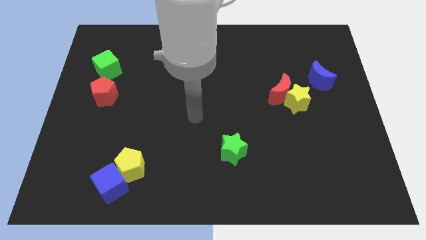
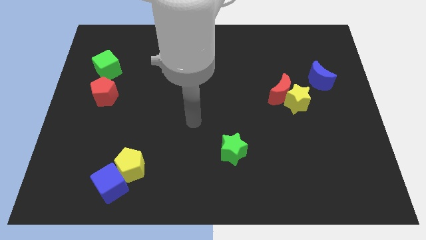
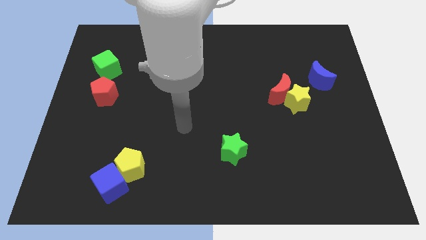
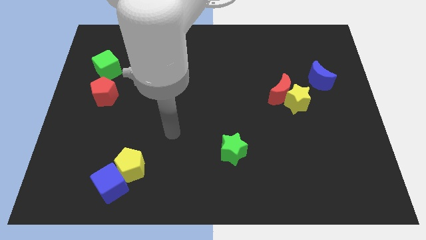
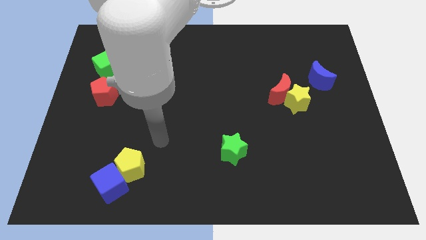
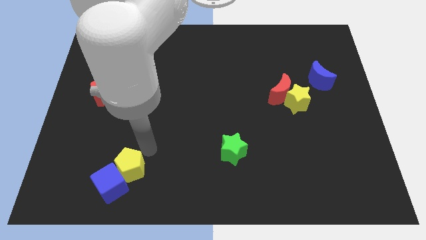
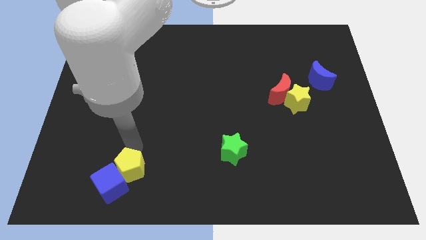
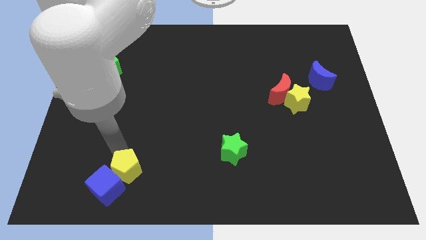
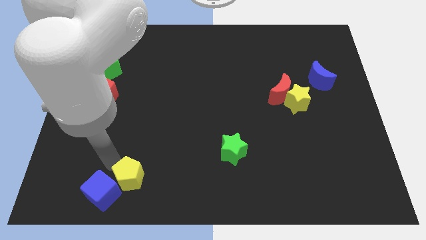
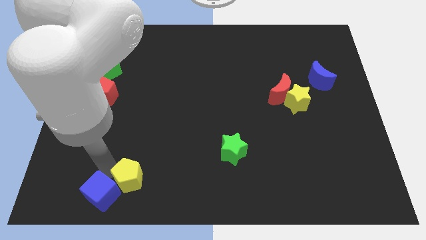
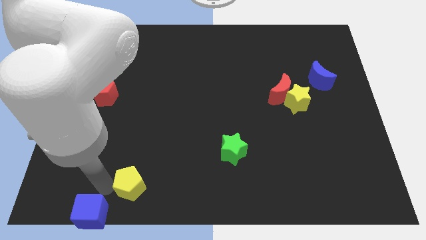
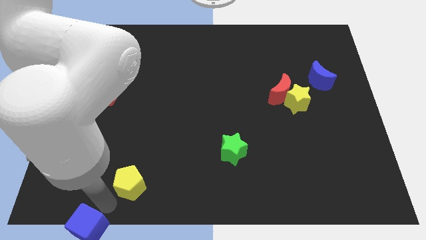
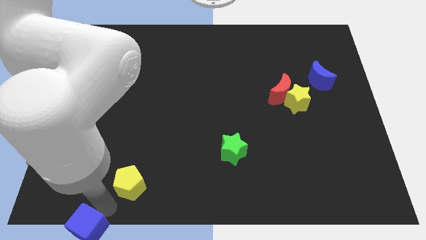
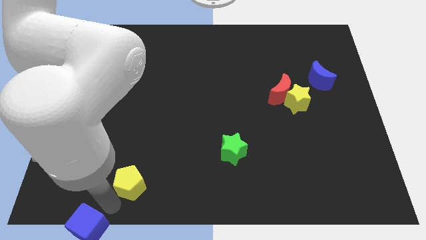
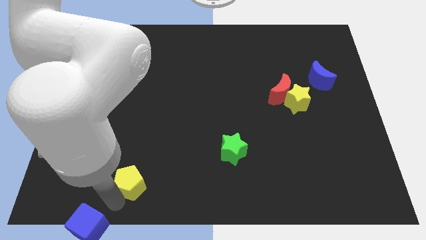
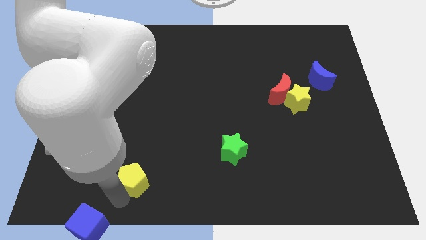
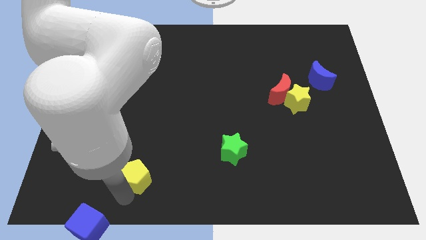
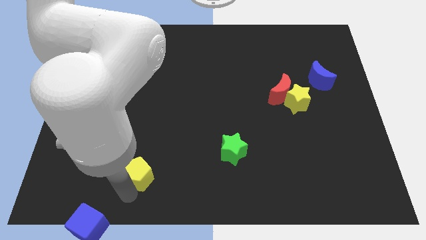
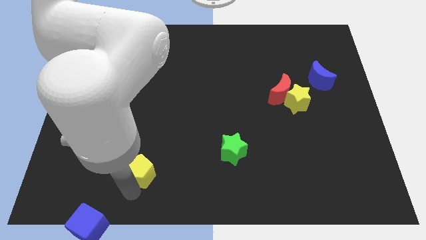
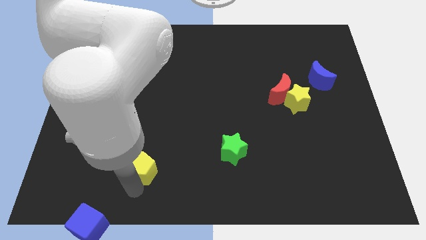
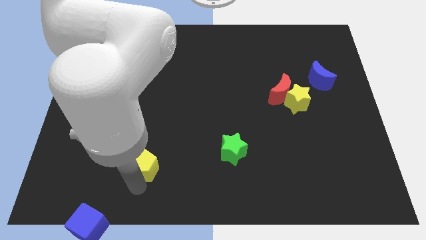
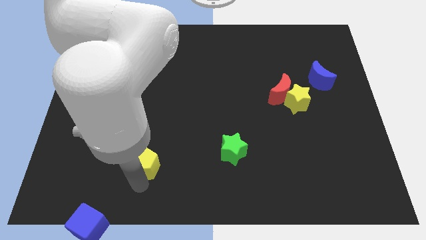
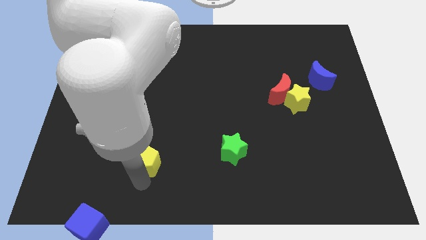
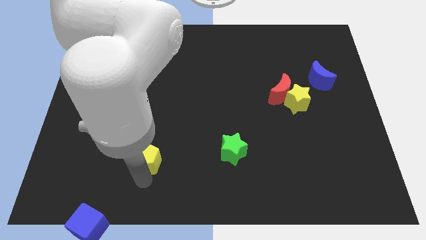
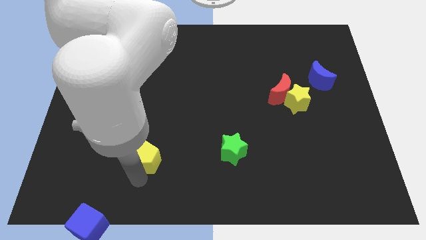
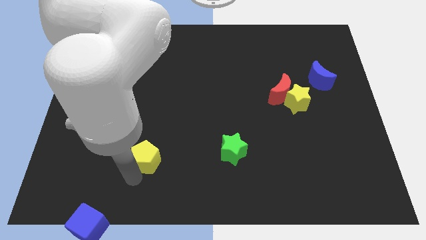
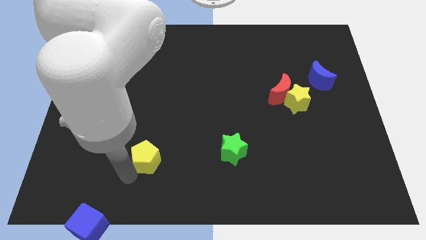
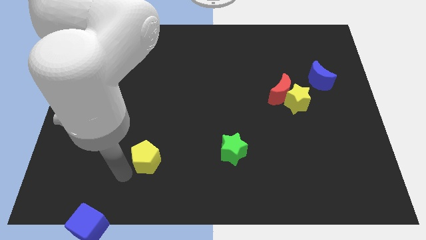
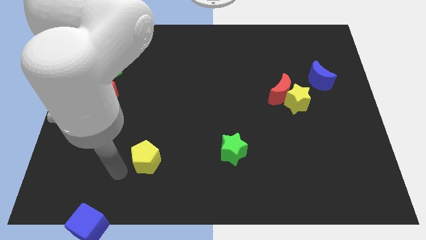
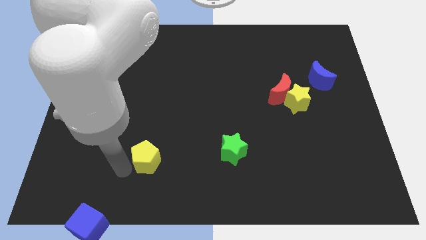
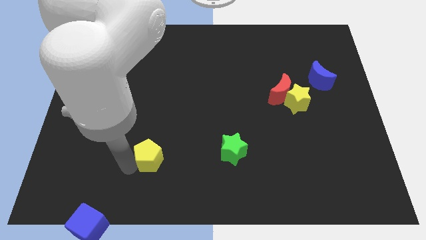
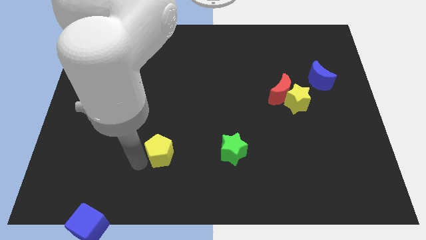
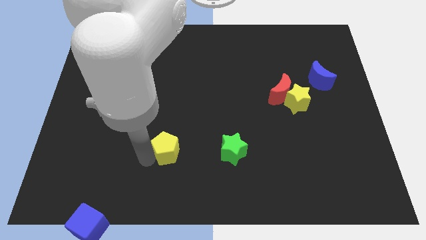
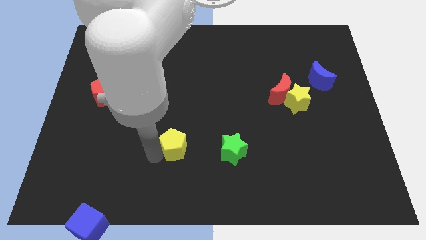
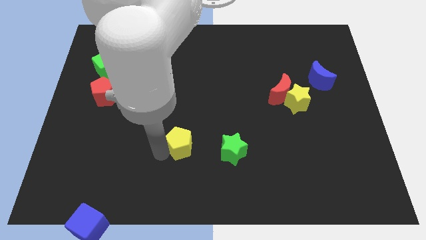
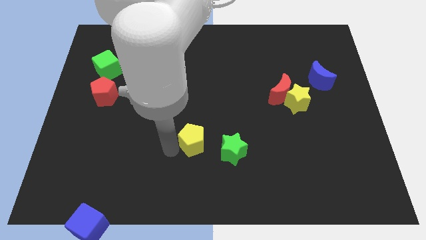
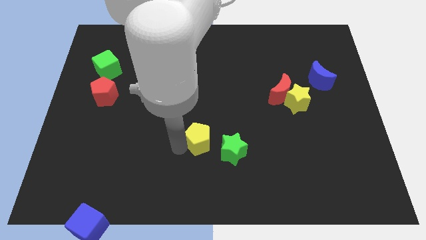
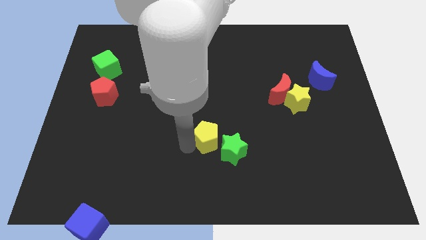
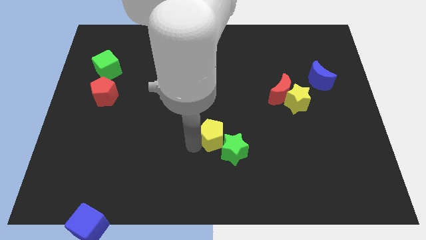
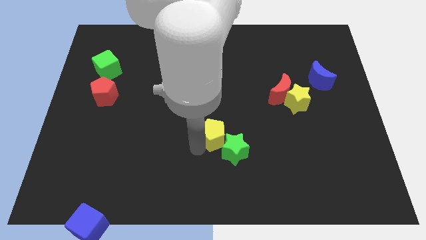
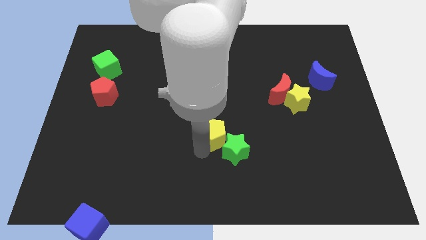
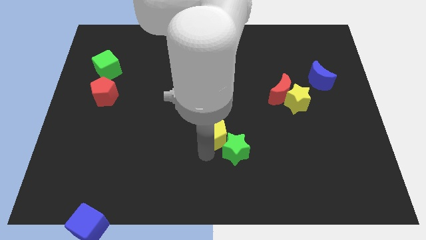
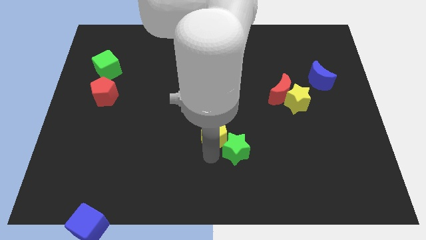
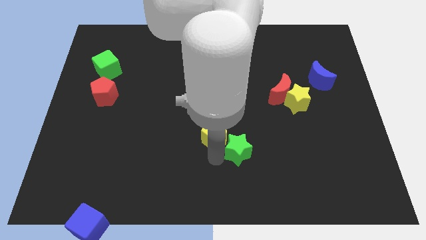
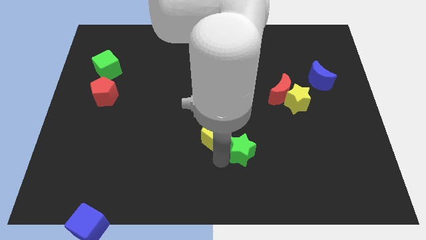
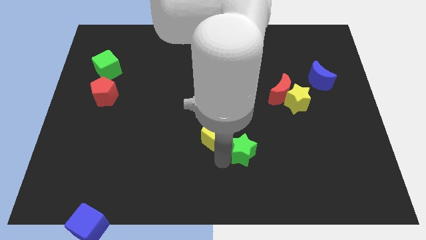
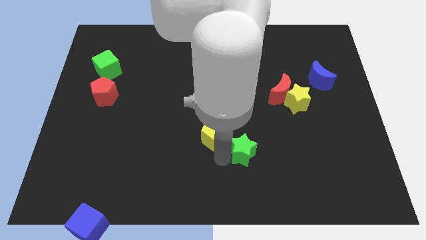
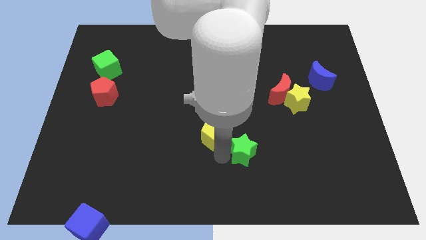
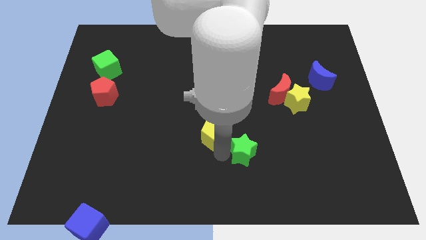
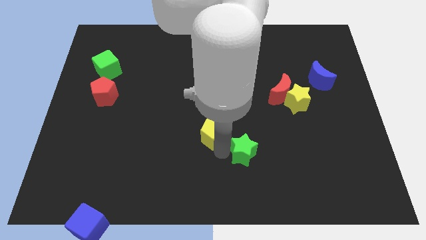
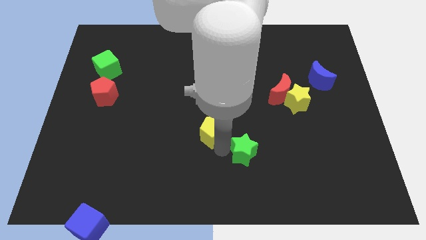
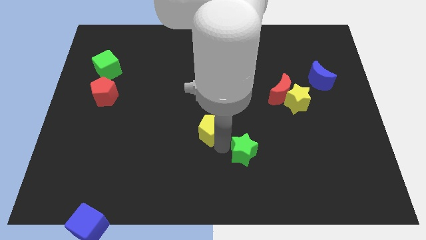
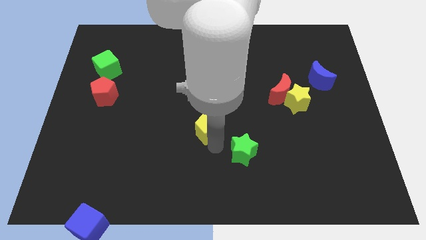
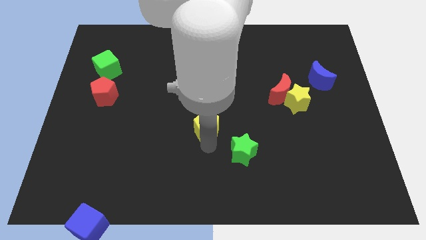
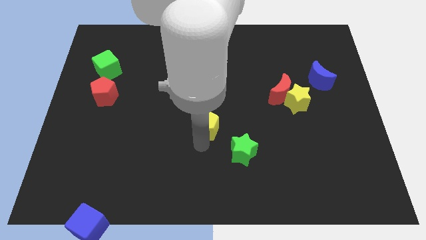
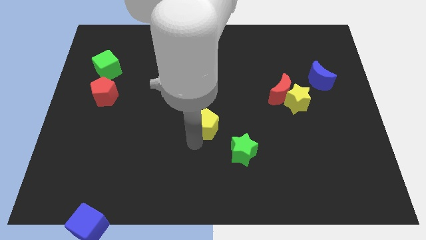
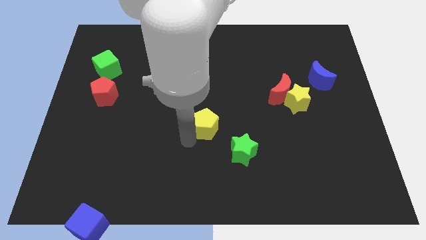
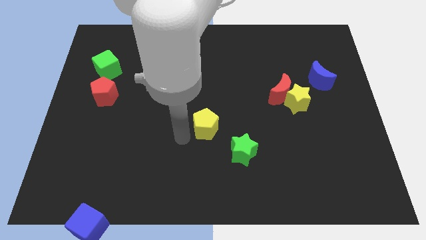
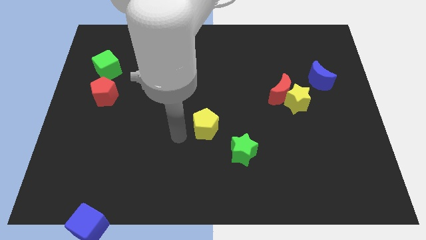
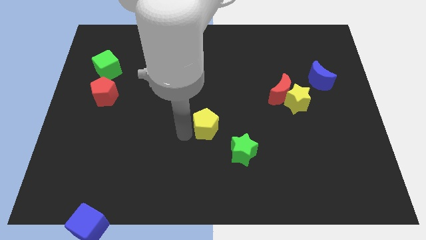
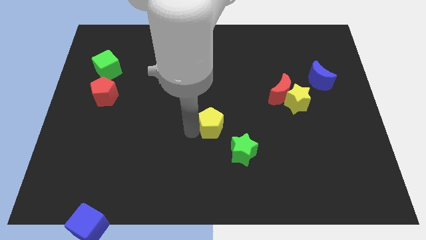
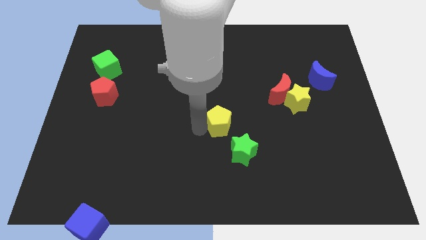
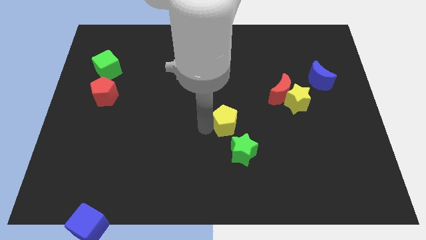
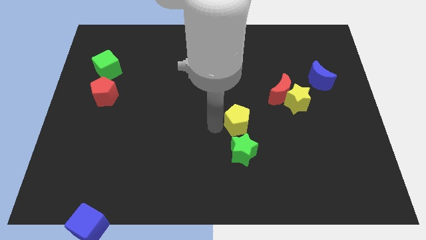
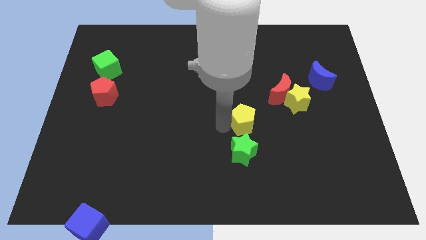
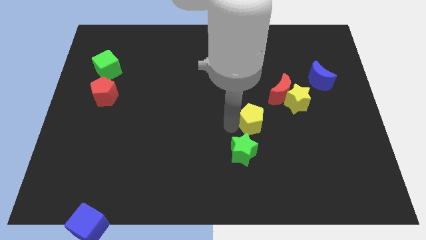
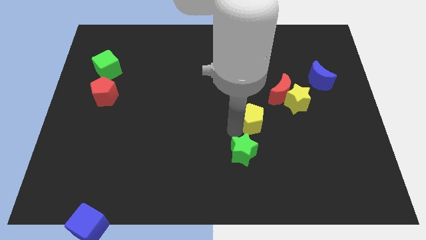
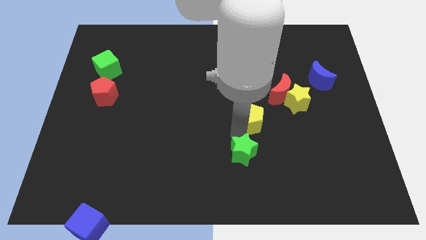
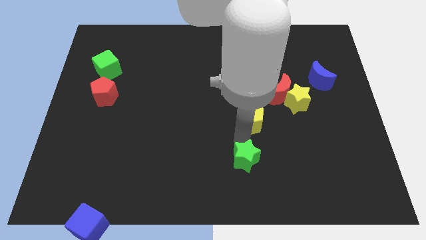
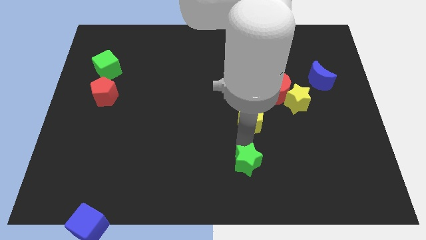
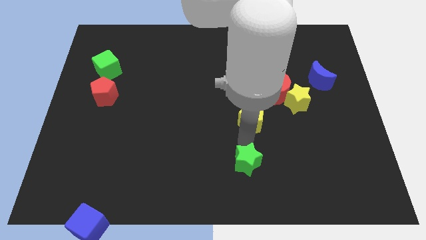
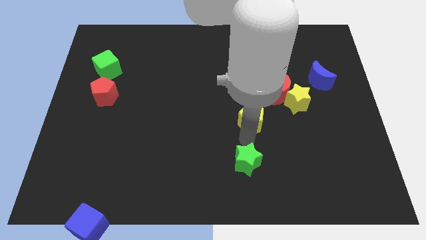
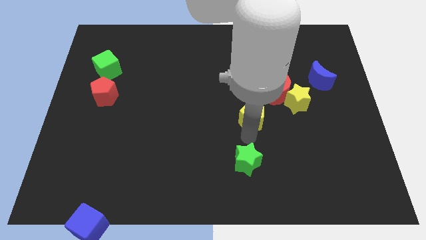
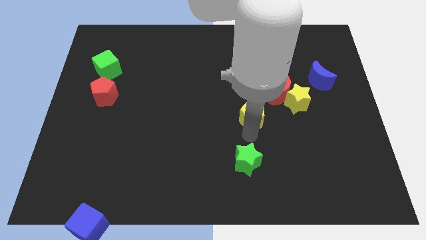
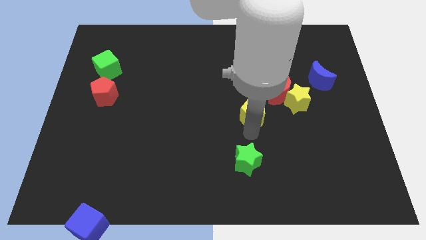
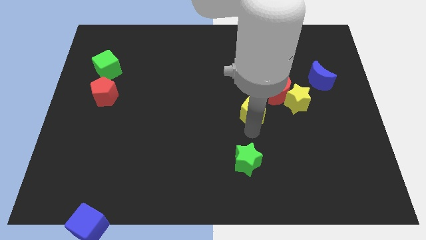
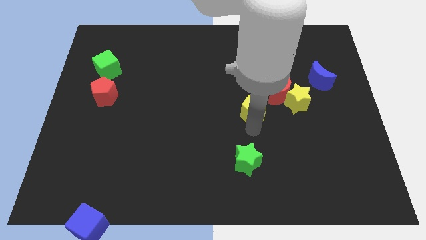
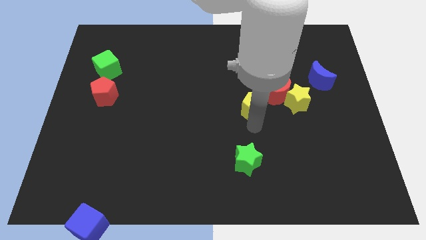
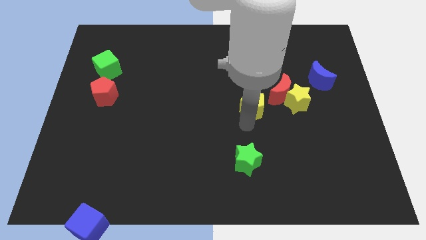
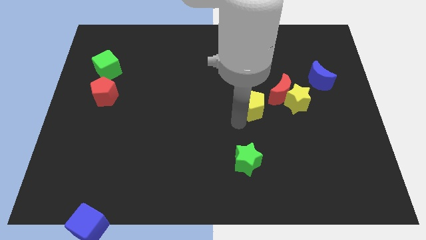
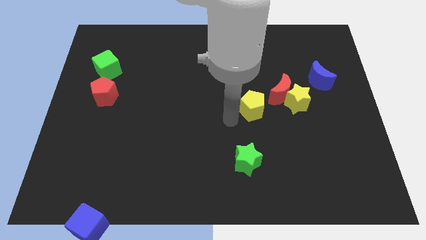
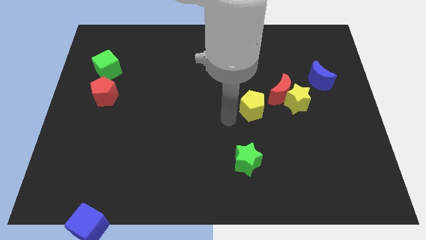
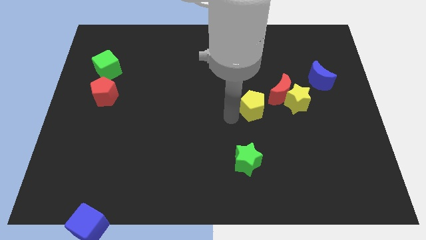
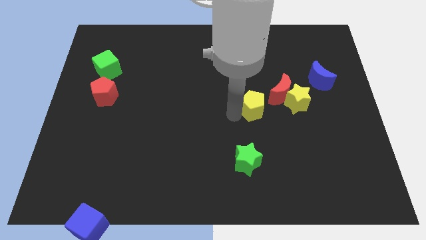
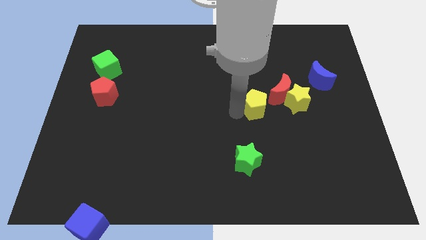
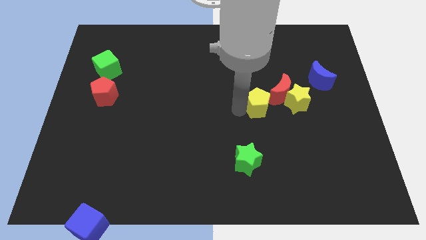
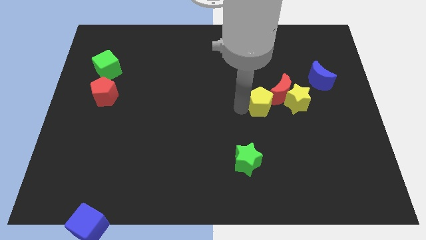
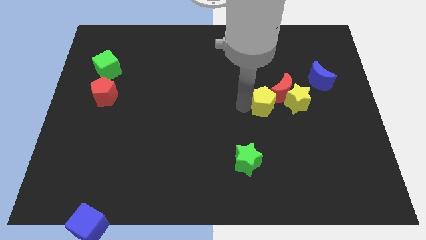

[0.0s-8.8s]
move the yellow pentagon next to the red moon
